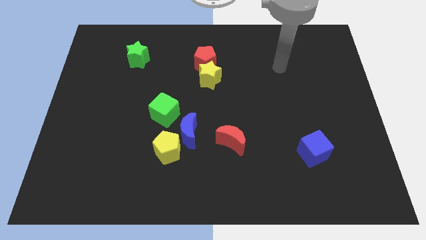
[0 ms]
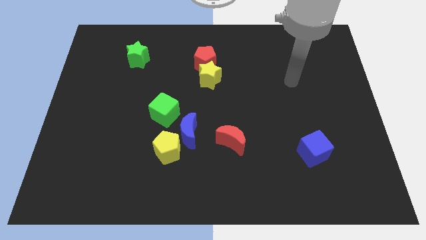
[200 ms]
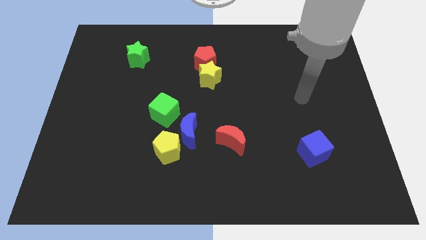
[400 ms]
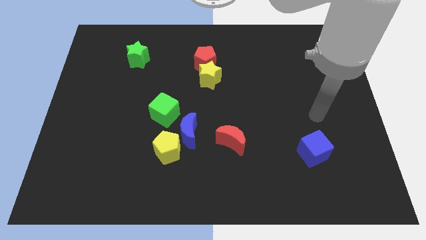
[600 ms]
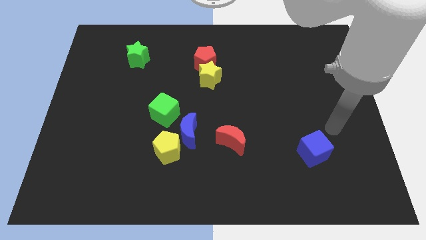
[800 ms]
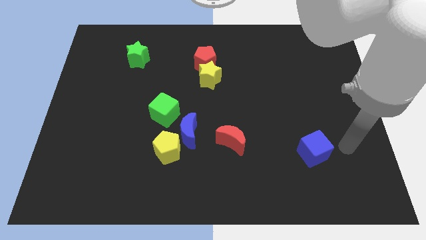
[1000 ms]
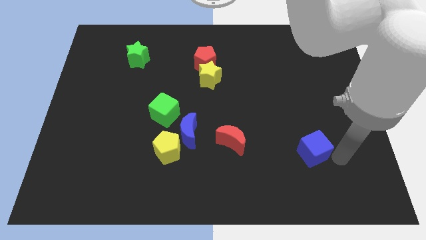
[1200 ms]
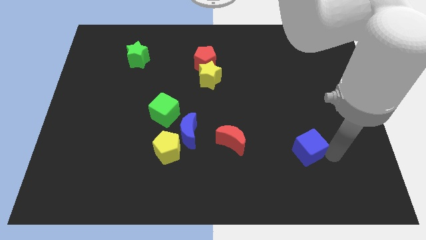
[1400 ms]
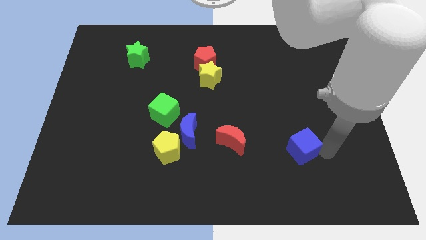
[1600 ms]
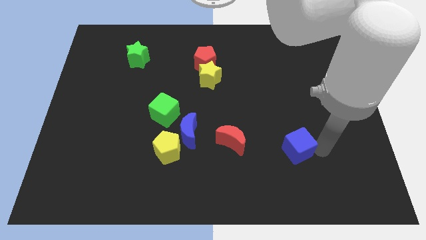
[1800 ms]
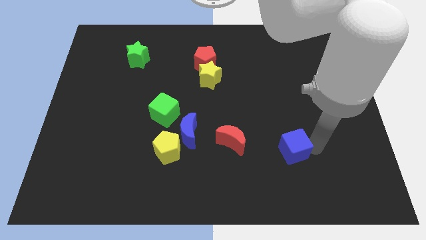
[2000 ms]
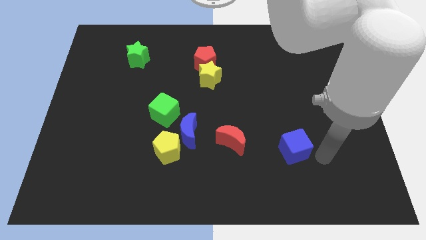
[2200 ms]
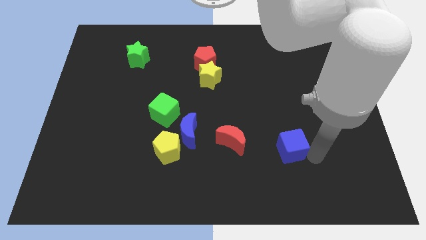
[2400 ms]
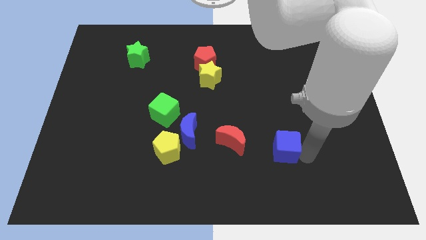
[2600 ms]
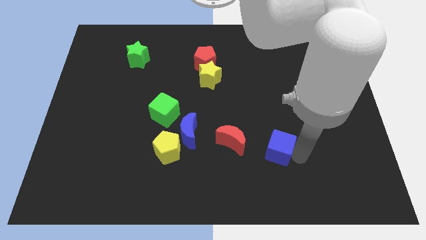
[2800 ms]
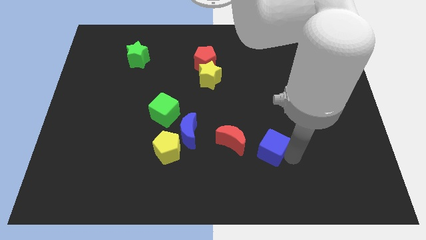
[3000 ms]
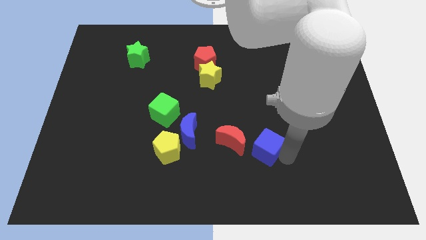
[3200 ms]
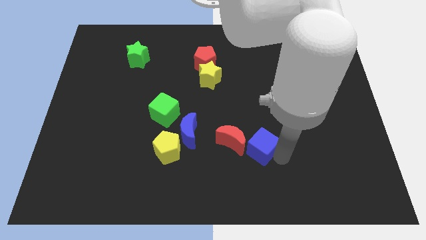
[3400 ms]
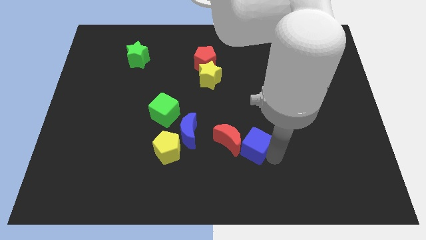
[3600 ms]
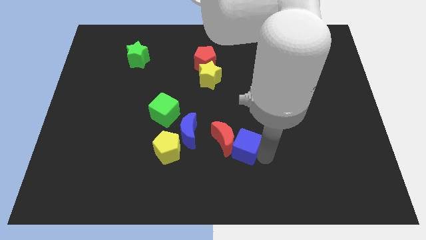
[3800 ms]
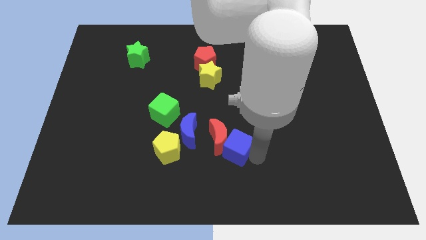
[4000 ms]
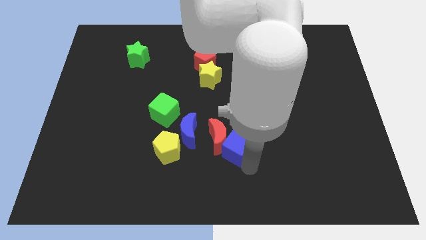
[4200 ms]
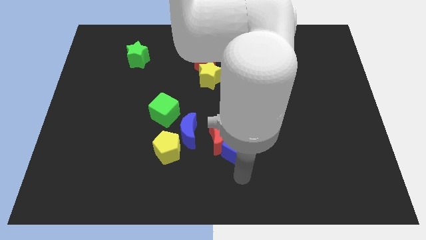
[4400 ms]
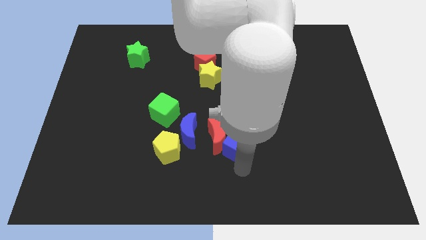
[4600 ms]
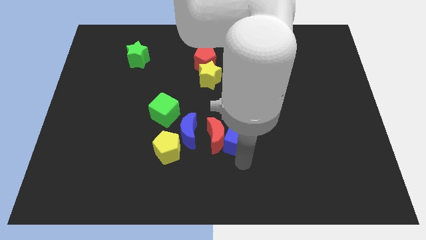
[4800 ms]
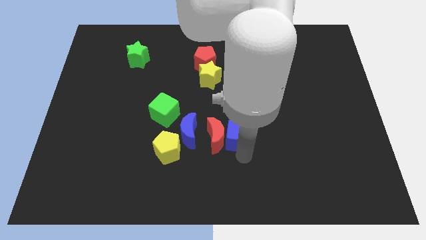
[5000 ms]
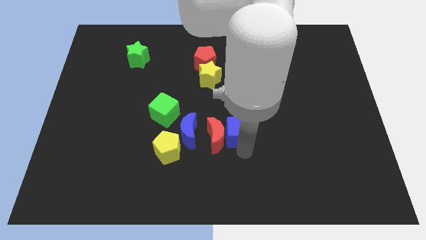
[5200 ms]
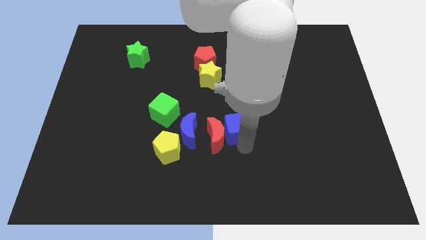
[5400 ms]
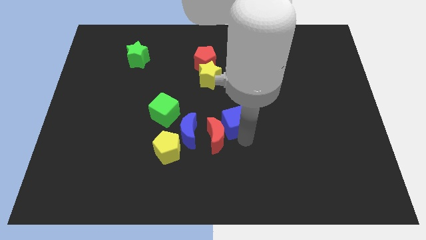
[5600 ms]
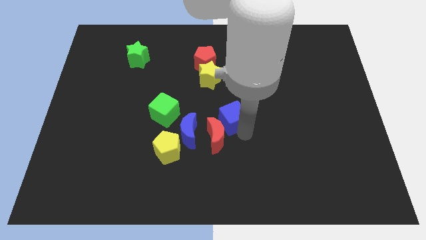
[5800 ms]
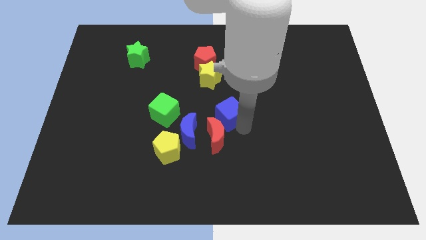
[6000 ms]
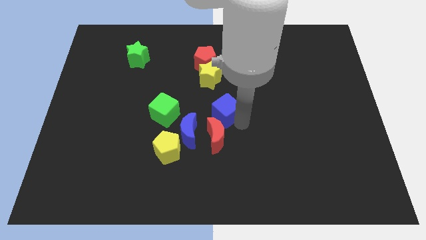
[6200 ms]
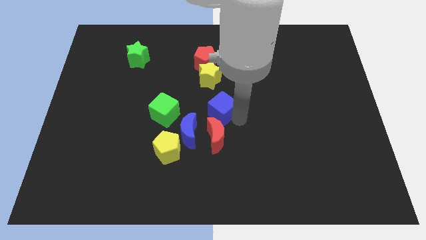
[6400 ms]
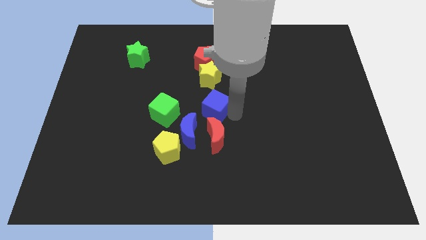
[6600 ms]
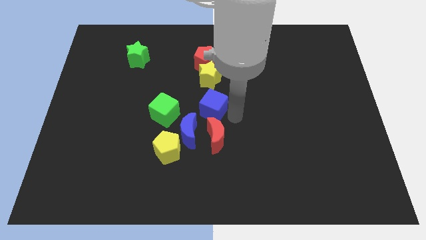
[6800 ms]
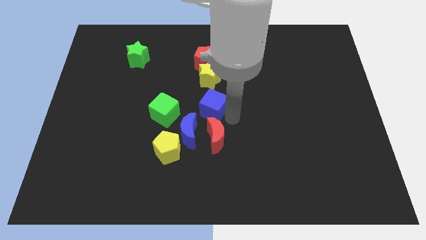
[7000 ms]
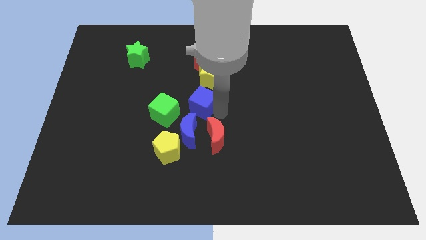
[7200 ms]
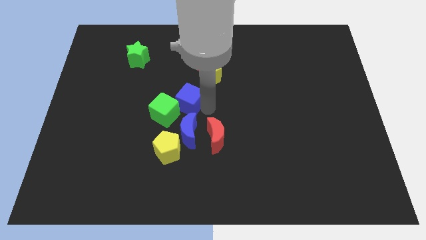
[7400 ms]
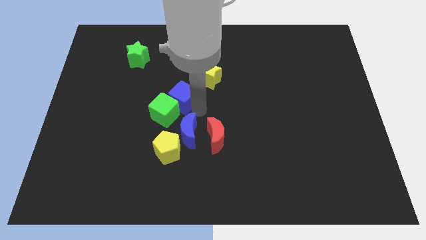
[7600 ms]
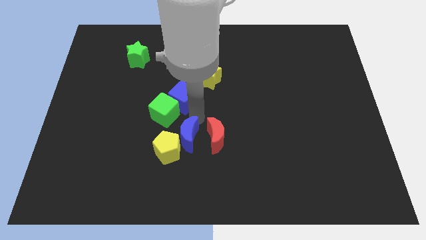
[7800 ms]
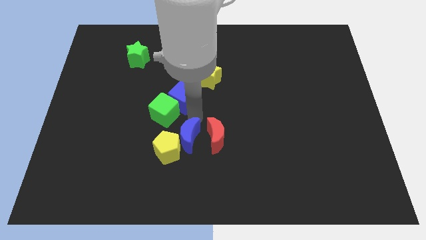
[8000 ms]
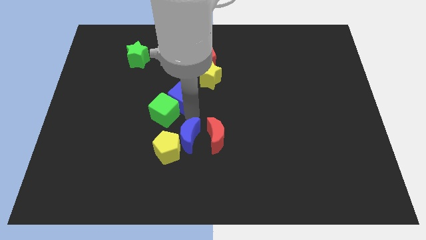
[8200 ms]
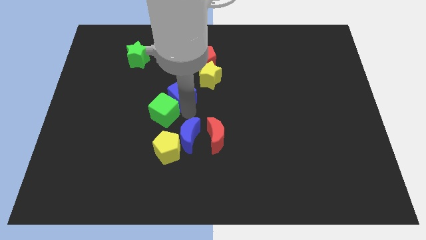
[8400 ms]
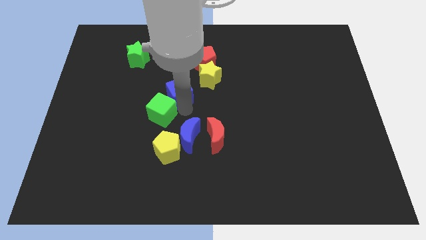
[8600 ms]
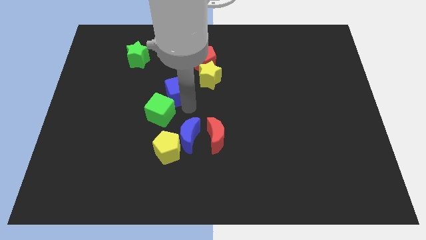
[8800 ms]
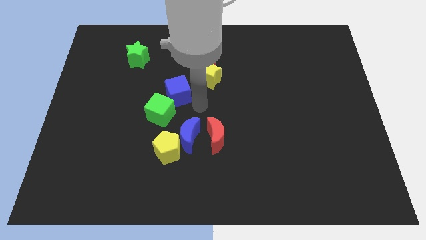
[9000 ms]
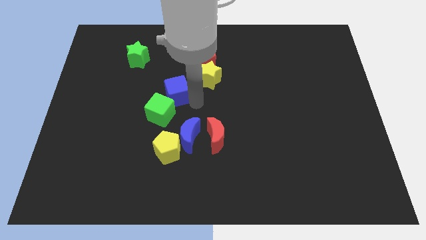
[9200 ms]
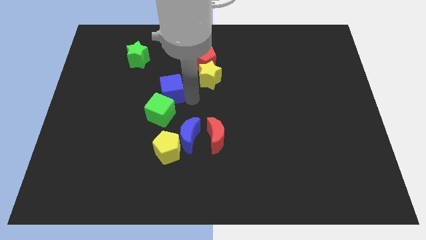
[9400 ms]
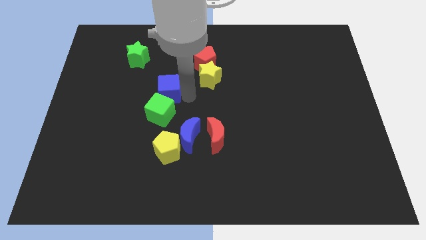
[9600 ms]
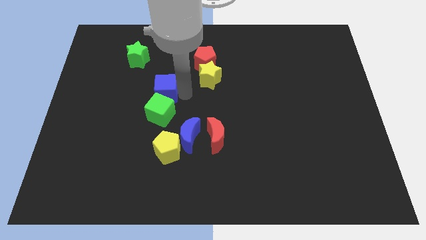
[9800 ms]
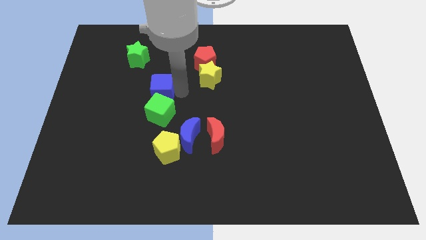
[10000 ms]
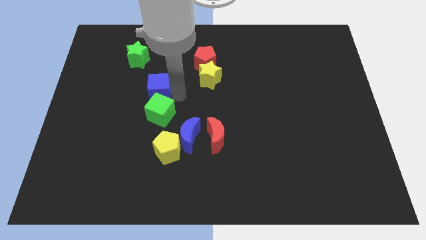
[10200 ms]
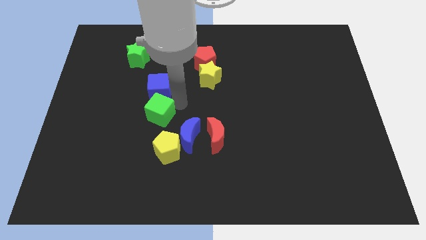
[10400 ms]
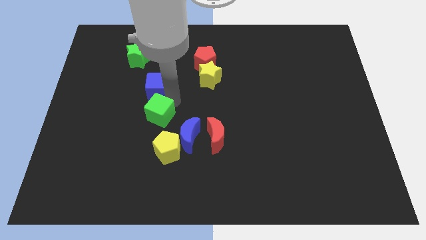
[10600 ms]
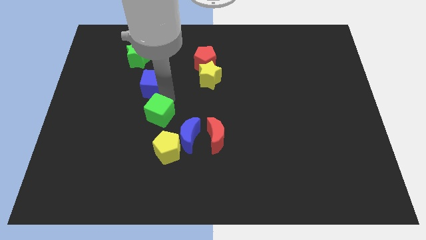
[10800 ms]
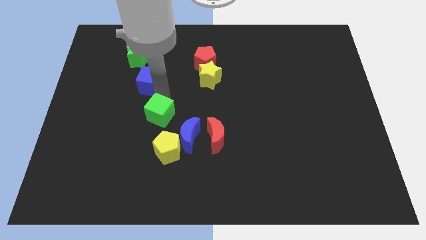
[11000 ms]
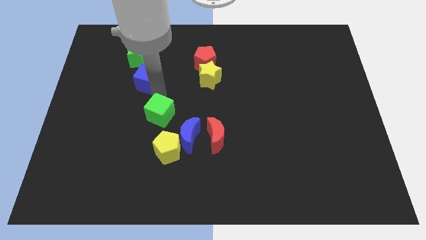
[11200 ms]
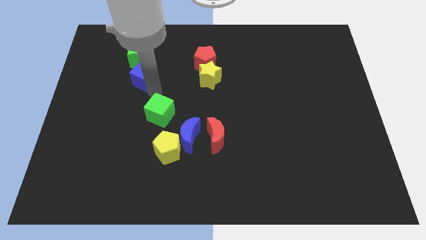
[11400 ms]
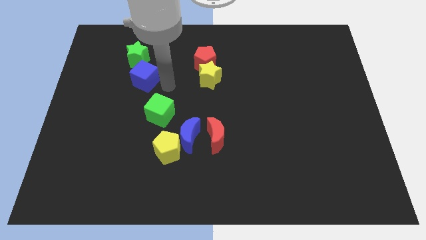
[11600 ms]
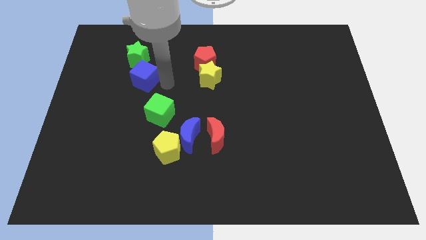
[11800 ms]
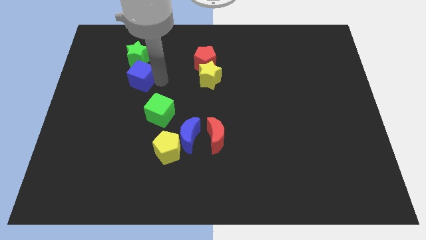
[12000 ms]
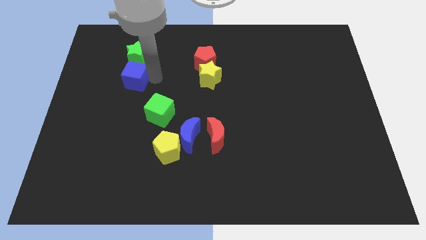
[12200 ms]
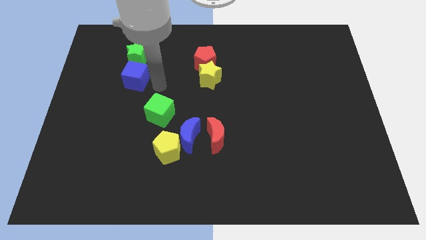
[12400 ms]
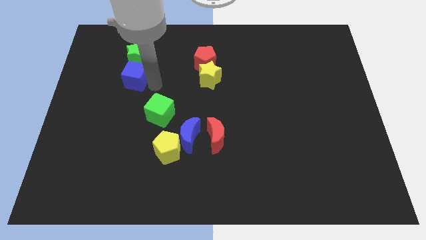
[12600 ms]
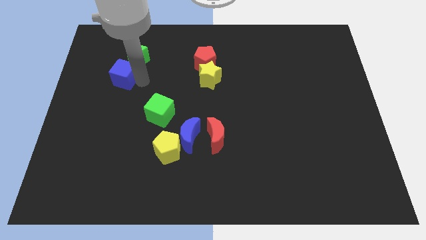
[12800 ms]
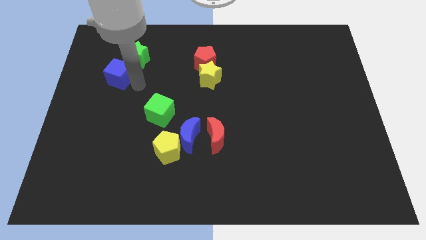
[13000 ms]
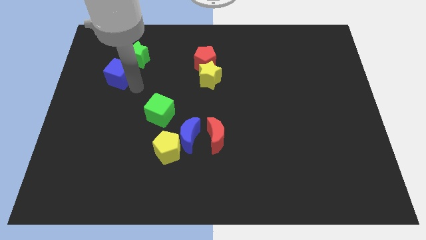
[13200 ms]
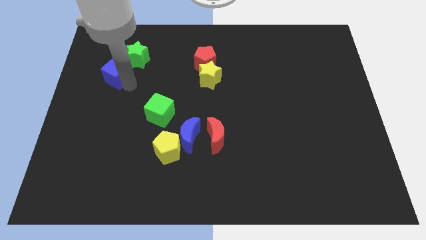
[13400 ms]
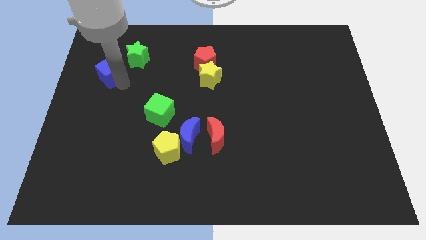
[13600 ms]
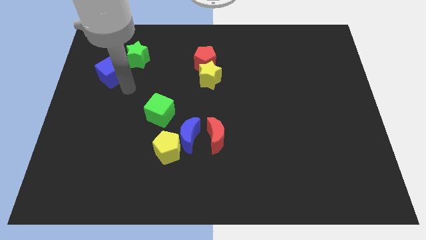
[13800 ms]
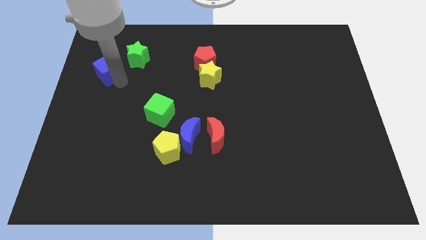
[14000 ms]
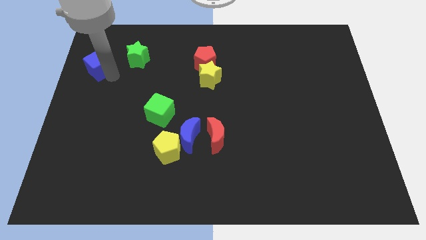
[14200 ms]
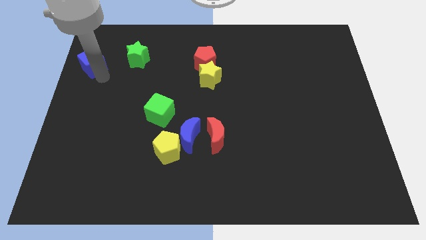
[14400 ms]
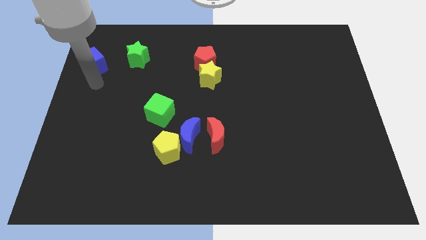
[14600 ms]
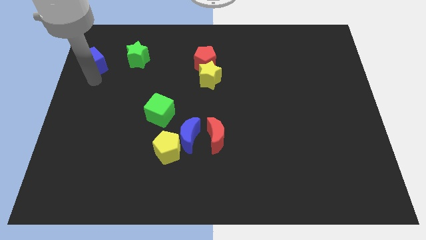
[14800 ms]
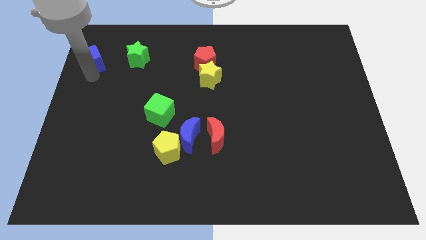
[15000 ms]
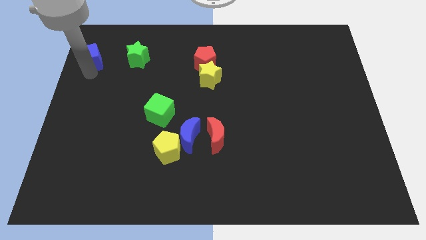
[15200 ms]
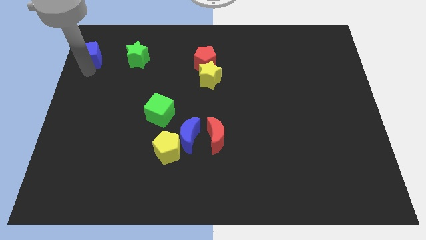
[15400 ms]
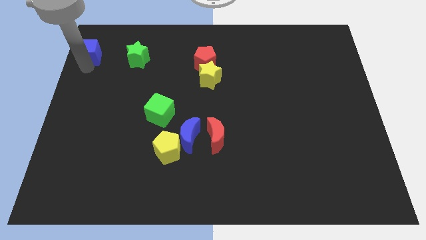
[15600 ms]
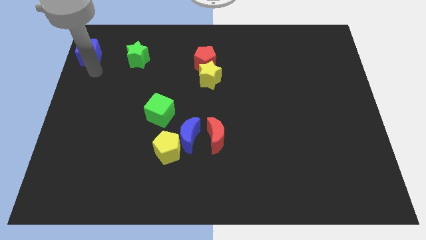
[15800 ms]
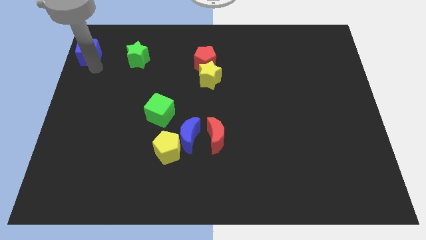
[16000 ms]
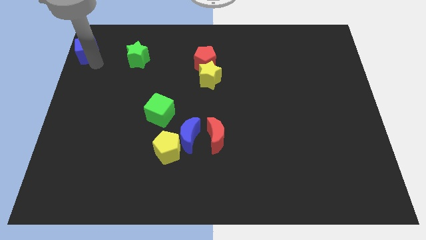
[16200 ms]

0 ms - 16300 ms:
push the blue cube to the top left
